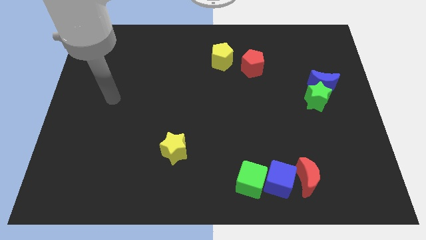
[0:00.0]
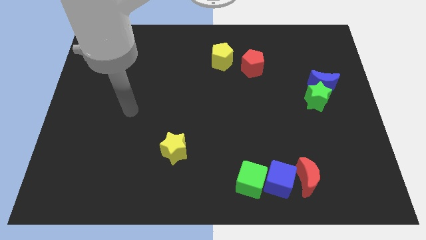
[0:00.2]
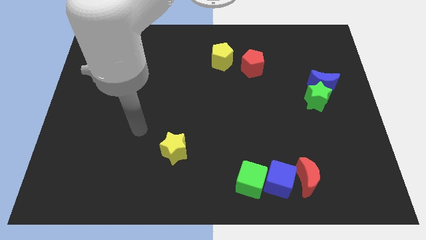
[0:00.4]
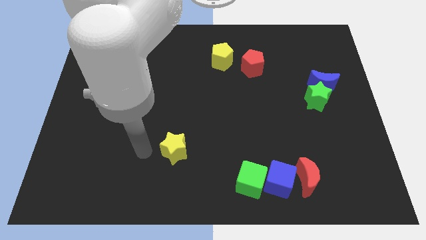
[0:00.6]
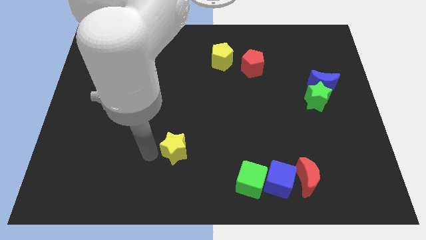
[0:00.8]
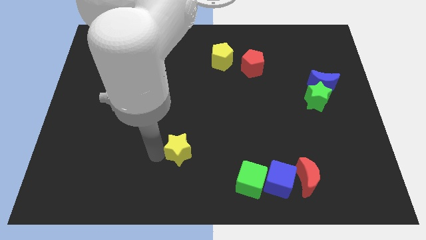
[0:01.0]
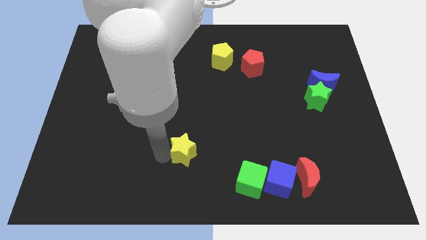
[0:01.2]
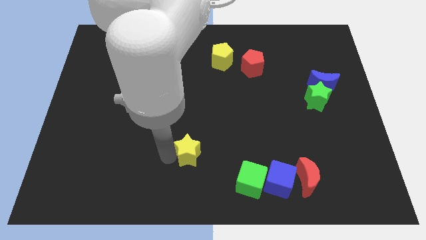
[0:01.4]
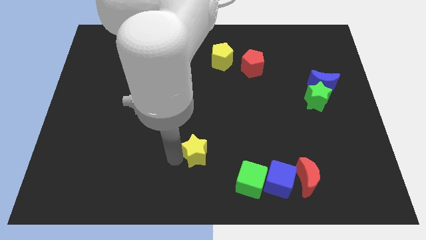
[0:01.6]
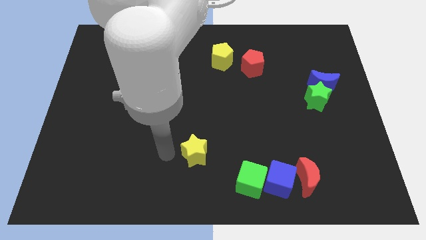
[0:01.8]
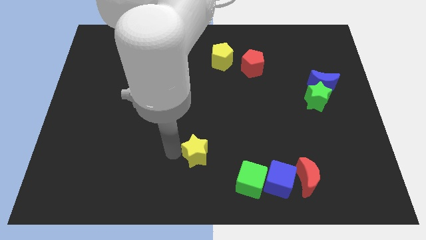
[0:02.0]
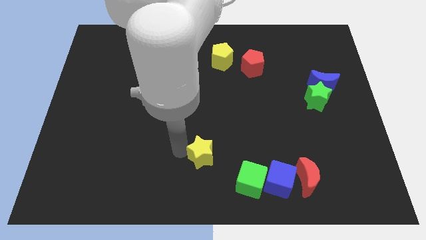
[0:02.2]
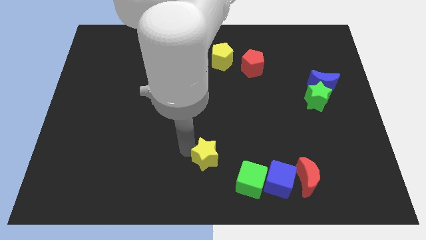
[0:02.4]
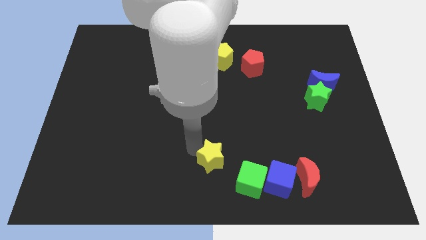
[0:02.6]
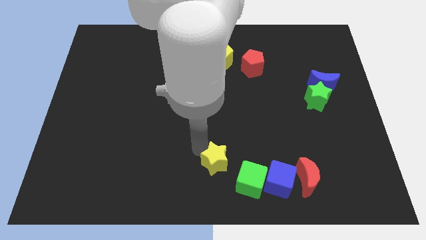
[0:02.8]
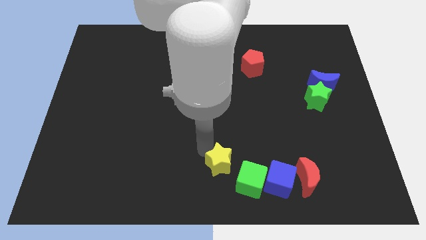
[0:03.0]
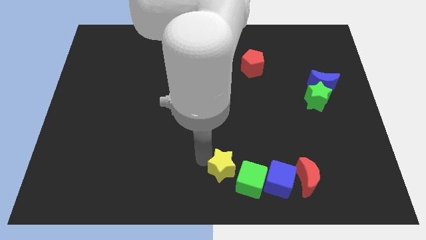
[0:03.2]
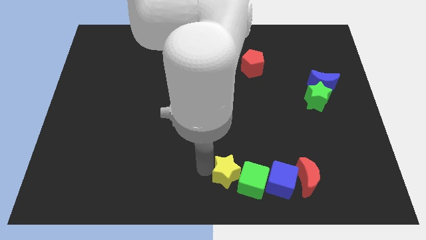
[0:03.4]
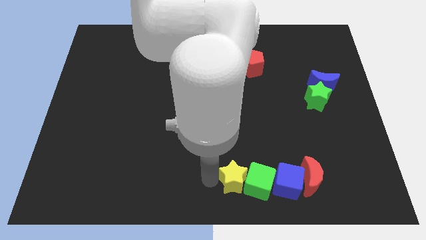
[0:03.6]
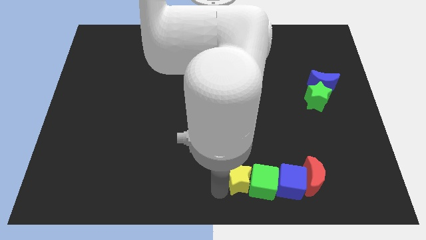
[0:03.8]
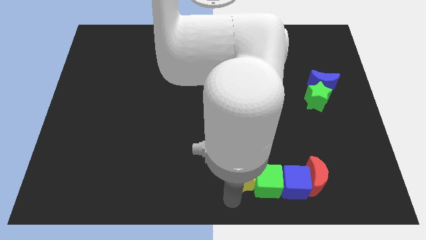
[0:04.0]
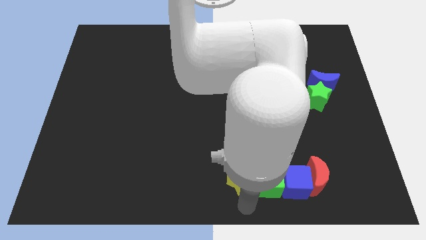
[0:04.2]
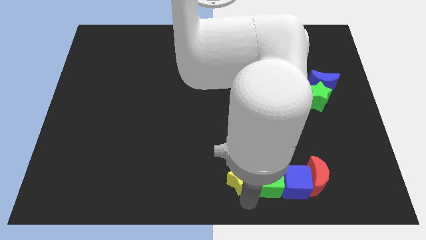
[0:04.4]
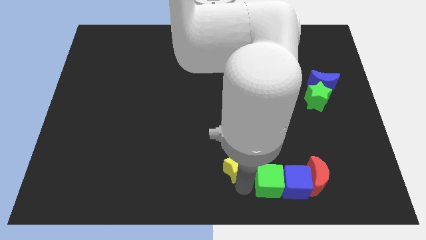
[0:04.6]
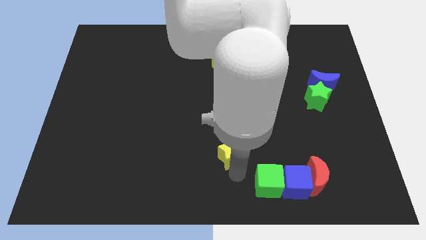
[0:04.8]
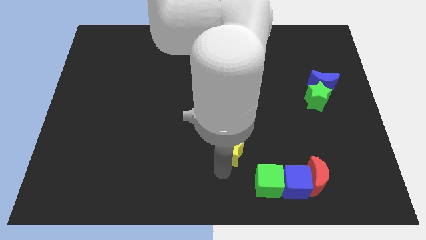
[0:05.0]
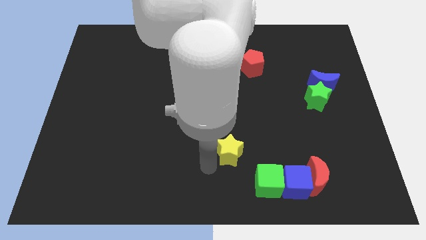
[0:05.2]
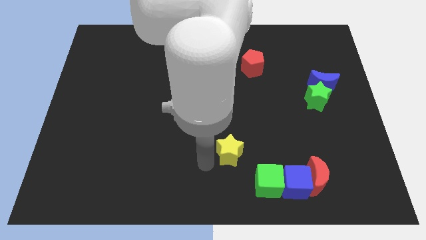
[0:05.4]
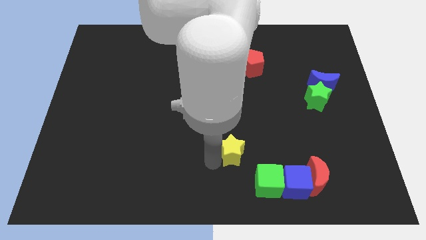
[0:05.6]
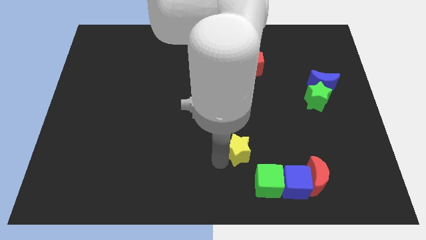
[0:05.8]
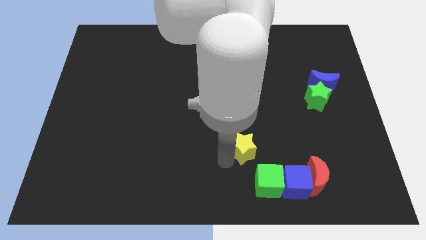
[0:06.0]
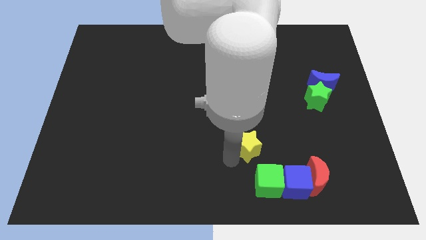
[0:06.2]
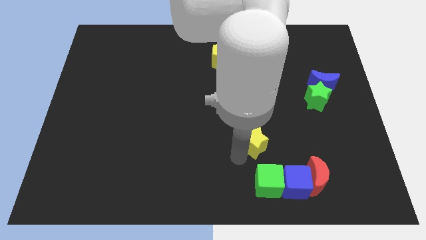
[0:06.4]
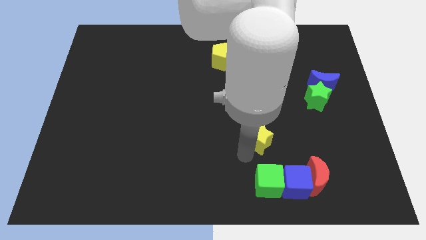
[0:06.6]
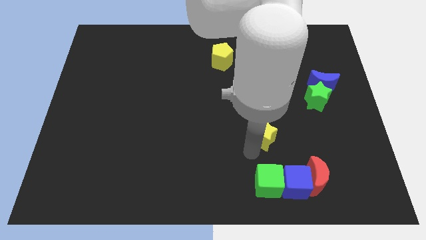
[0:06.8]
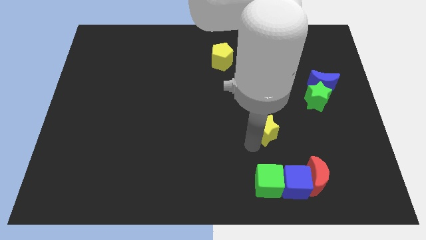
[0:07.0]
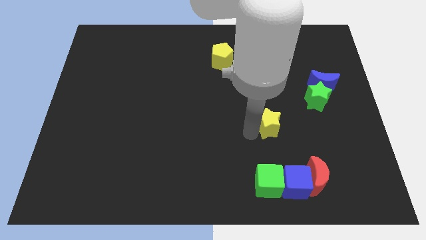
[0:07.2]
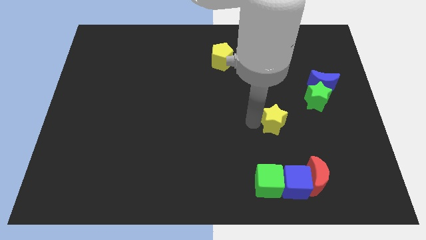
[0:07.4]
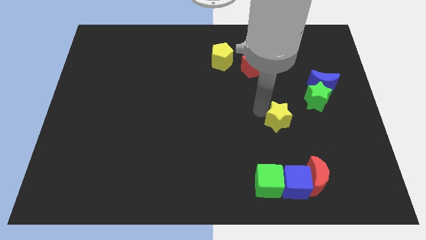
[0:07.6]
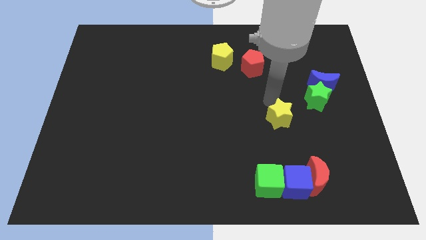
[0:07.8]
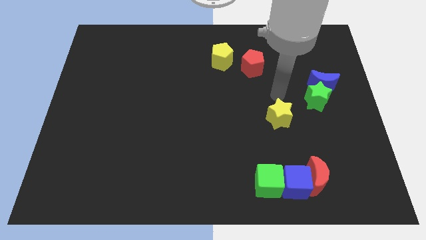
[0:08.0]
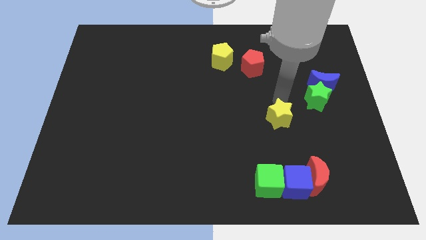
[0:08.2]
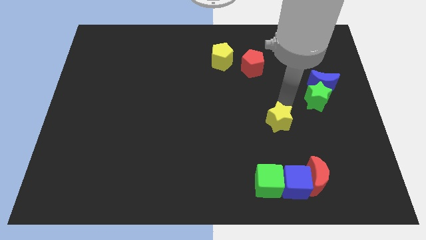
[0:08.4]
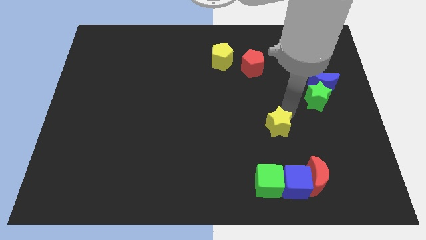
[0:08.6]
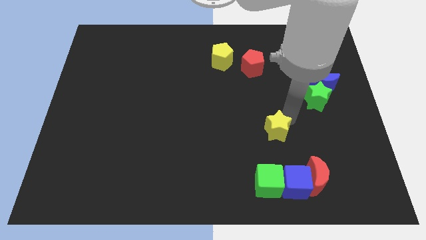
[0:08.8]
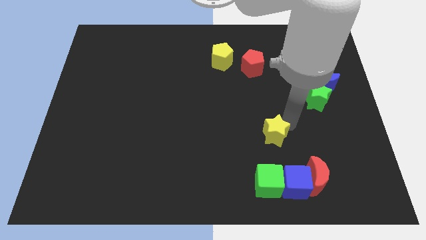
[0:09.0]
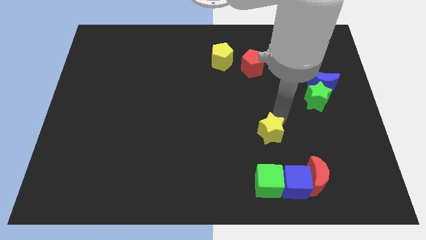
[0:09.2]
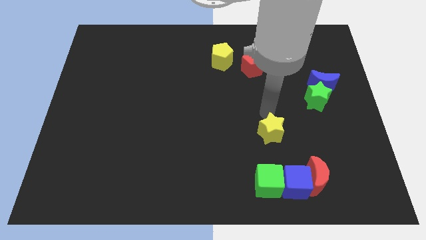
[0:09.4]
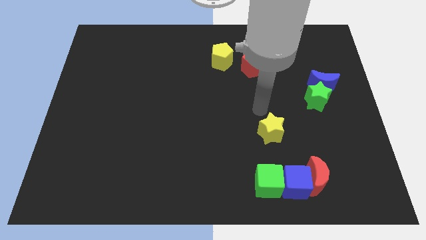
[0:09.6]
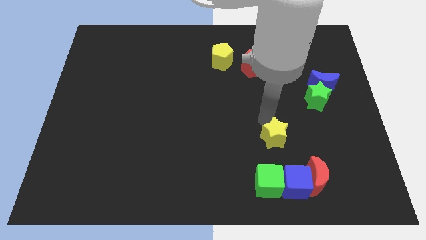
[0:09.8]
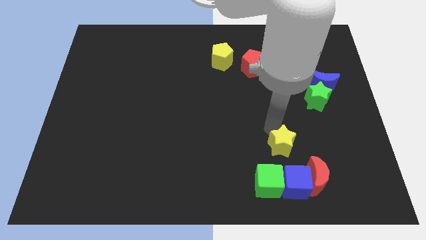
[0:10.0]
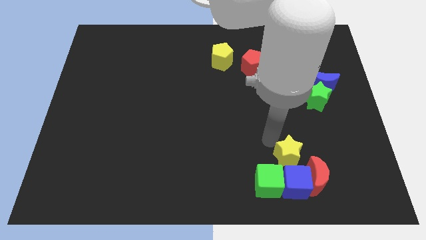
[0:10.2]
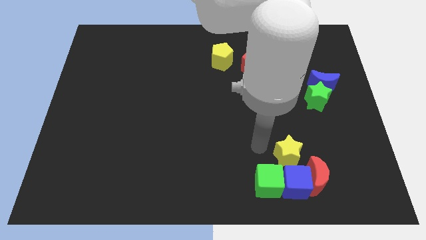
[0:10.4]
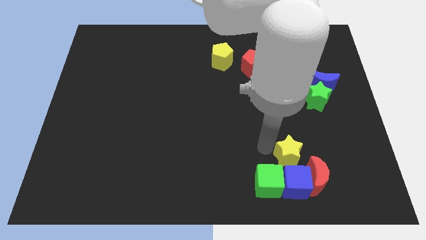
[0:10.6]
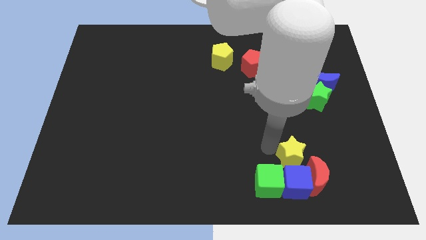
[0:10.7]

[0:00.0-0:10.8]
slide the yellow star to the top right side of the blue cube

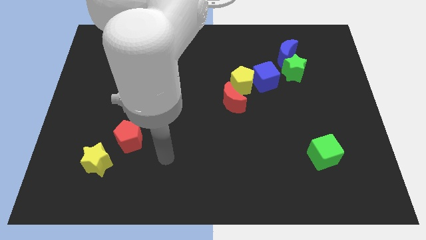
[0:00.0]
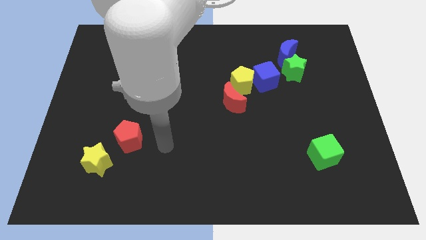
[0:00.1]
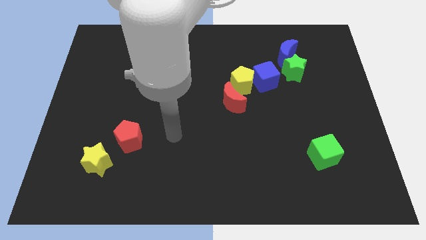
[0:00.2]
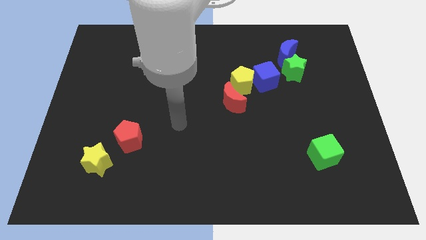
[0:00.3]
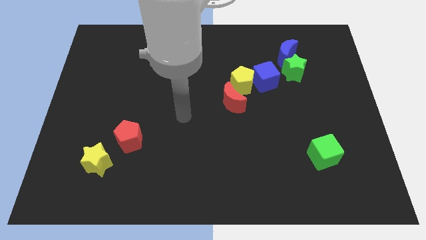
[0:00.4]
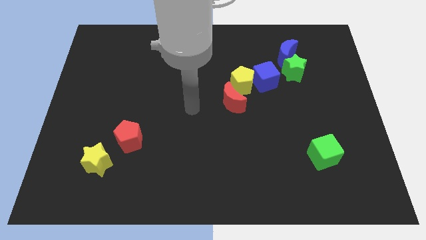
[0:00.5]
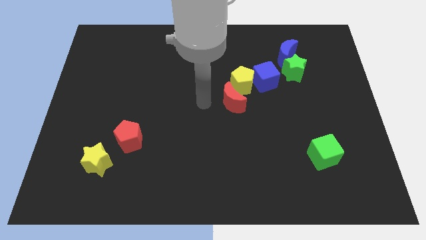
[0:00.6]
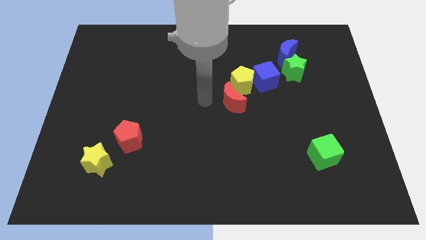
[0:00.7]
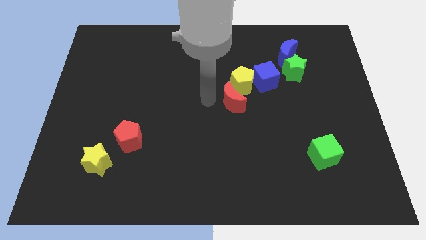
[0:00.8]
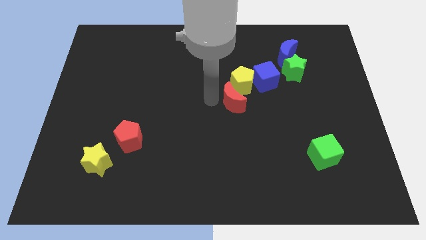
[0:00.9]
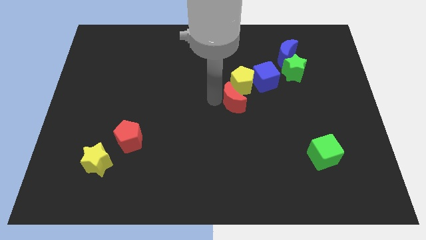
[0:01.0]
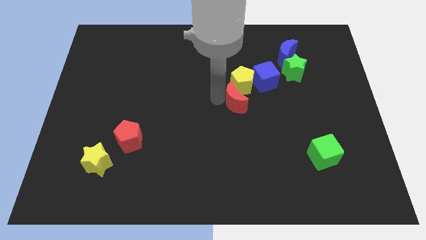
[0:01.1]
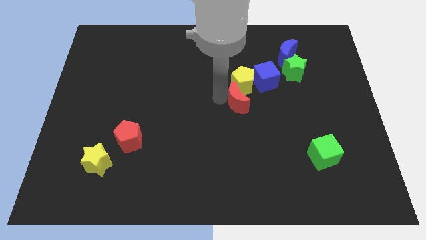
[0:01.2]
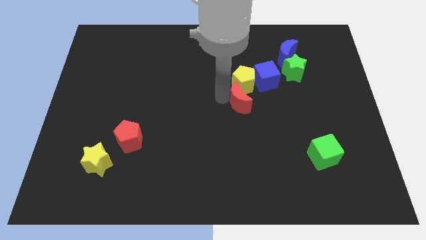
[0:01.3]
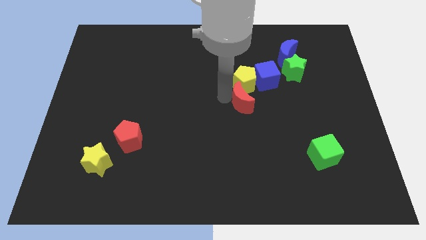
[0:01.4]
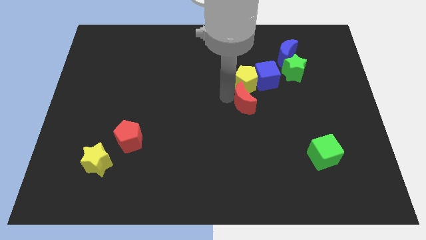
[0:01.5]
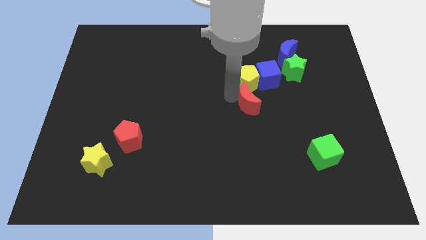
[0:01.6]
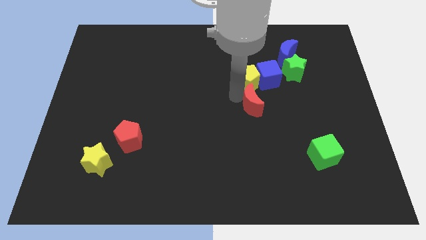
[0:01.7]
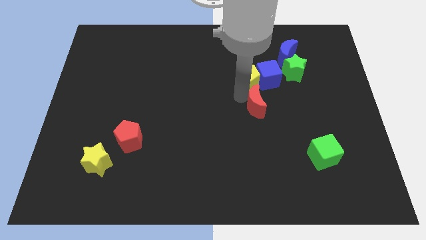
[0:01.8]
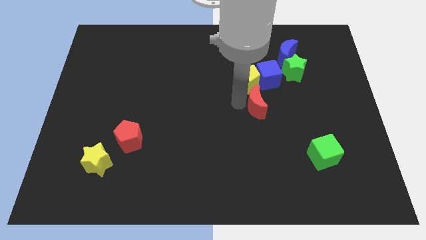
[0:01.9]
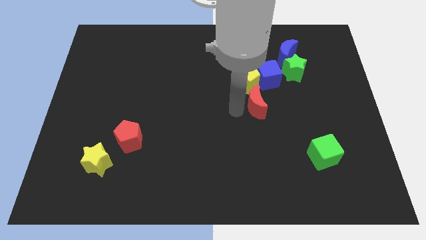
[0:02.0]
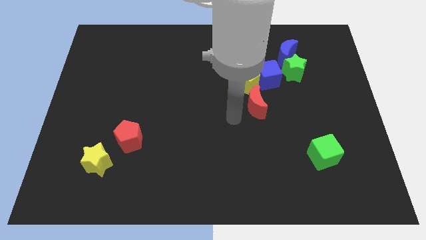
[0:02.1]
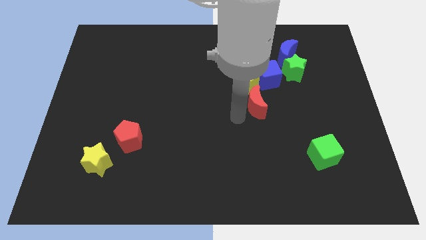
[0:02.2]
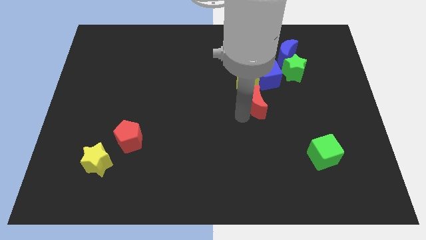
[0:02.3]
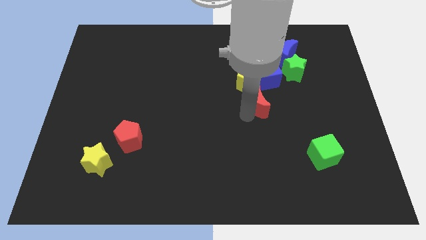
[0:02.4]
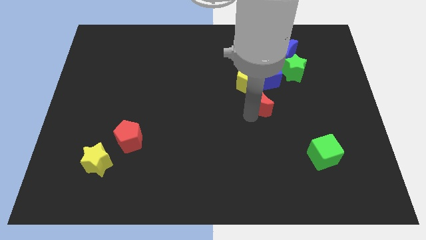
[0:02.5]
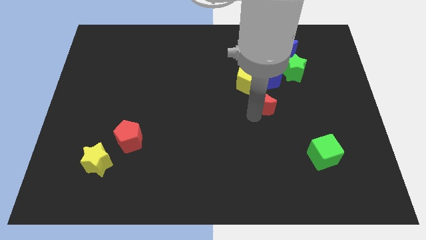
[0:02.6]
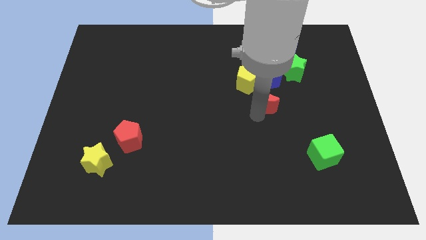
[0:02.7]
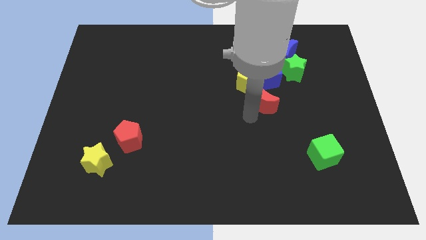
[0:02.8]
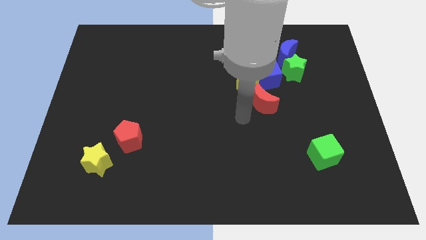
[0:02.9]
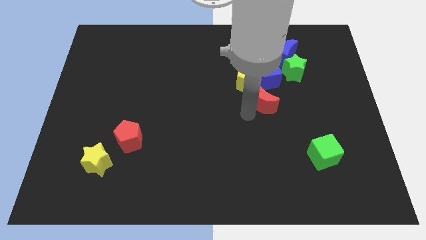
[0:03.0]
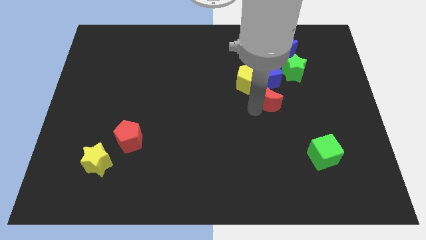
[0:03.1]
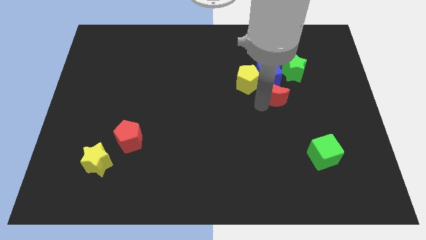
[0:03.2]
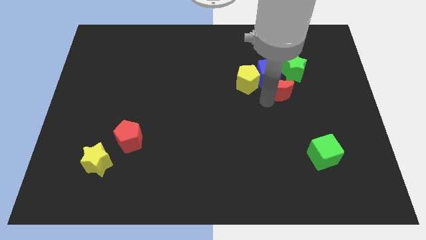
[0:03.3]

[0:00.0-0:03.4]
move the red moon to the bottom of the blue moon
